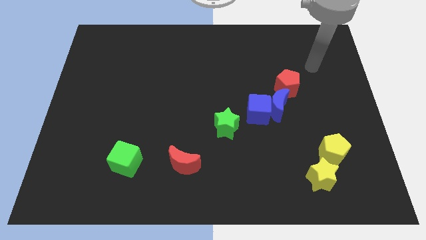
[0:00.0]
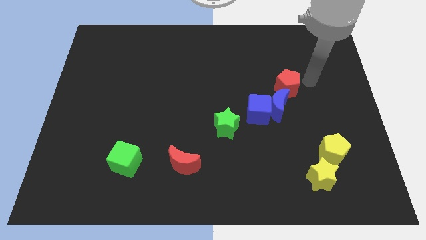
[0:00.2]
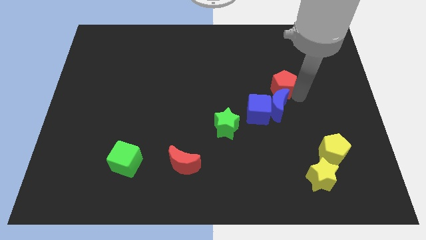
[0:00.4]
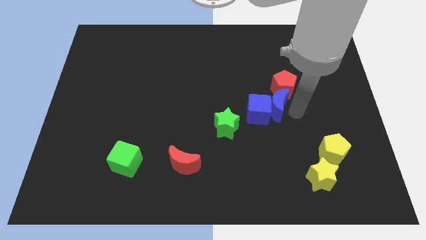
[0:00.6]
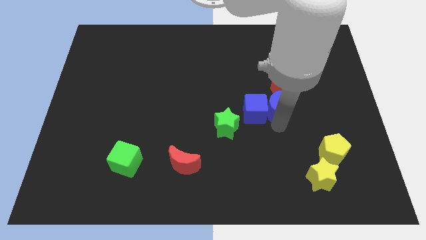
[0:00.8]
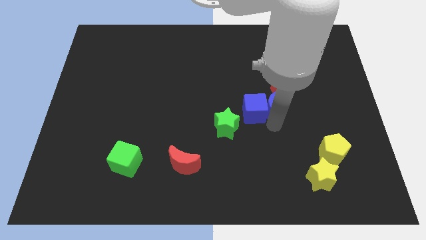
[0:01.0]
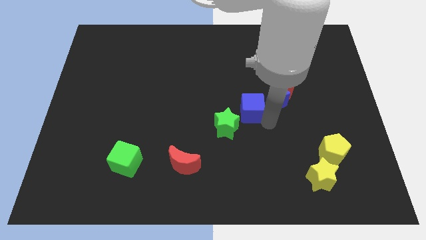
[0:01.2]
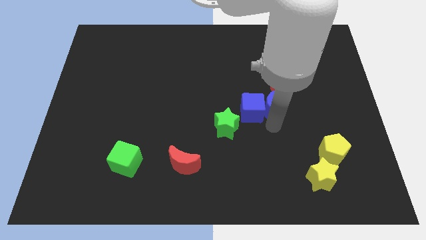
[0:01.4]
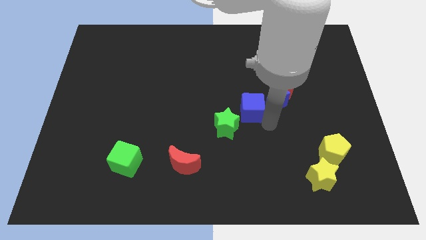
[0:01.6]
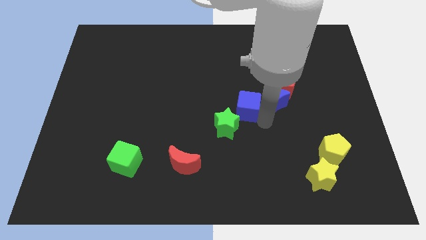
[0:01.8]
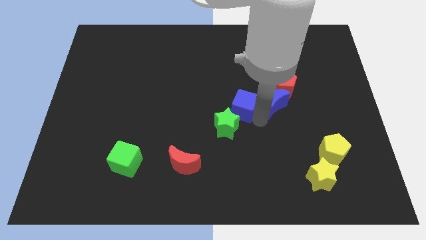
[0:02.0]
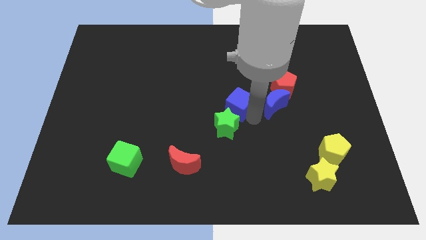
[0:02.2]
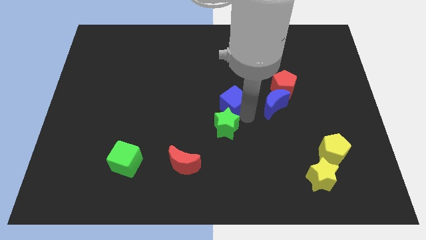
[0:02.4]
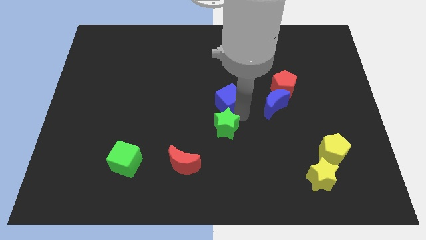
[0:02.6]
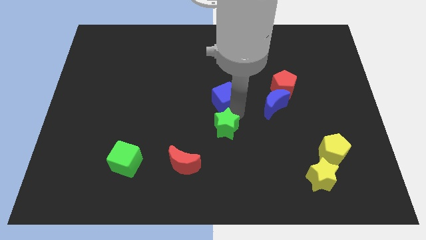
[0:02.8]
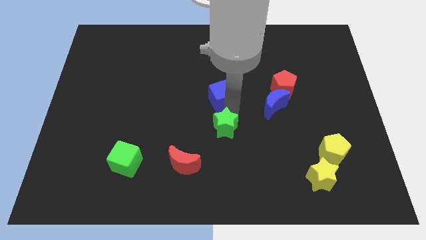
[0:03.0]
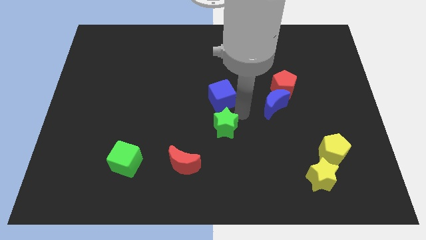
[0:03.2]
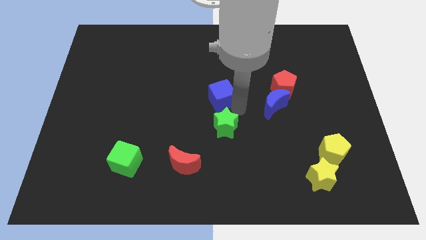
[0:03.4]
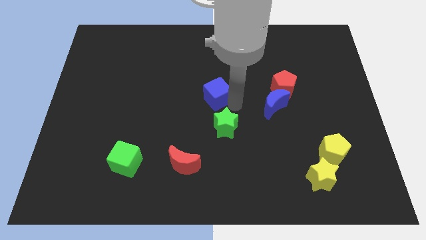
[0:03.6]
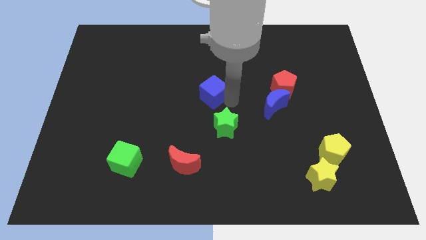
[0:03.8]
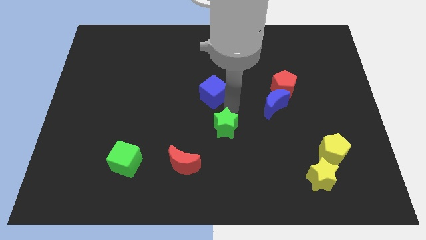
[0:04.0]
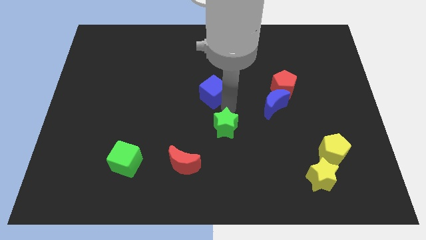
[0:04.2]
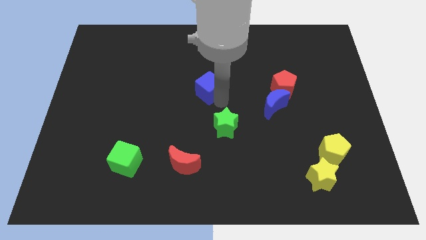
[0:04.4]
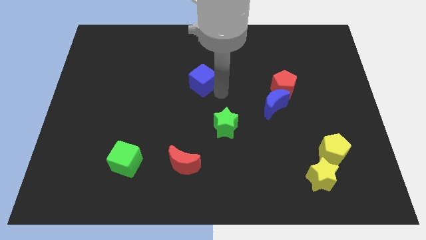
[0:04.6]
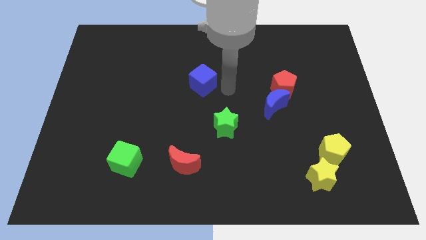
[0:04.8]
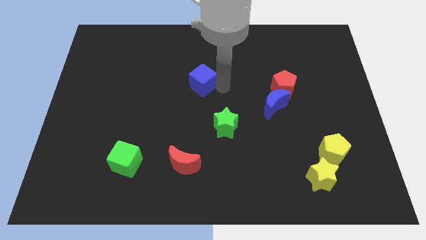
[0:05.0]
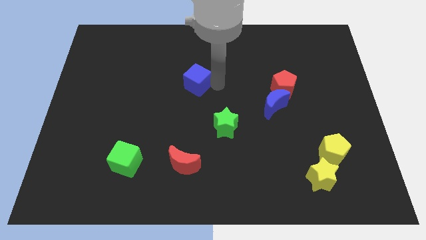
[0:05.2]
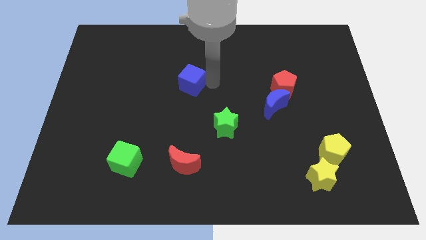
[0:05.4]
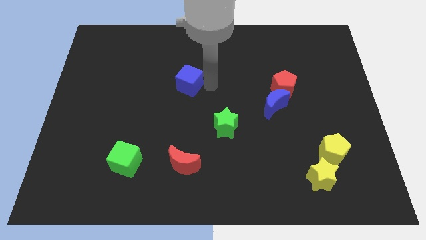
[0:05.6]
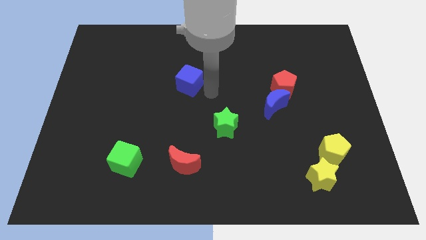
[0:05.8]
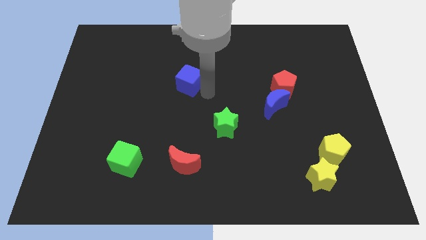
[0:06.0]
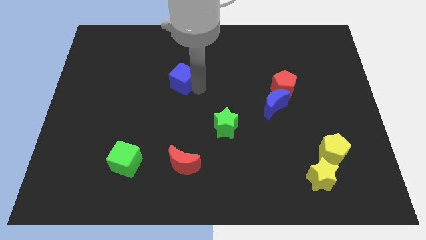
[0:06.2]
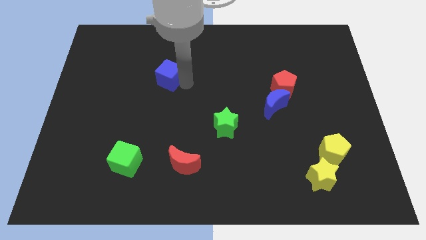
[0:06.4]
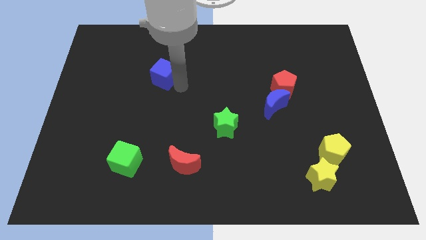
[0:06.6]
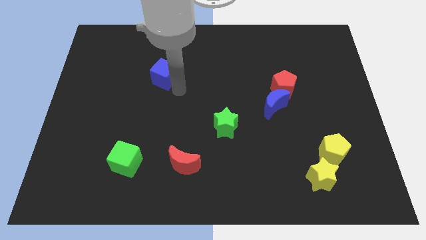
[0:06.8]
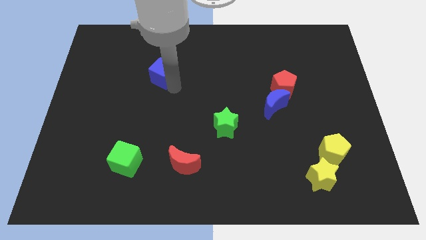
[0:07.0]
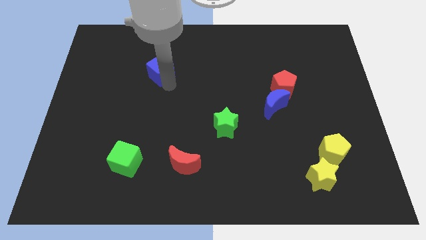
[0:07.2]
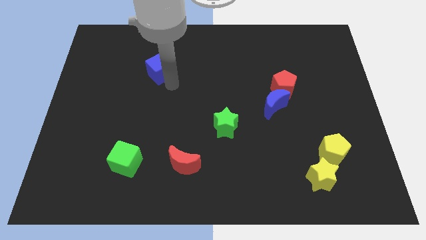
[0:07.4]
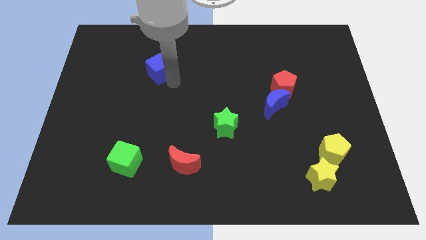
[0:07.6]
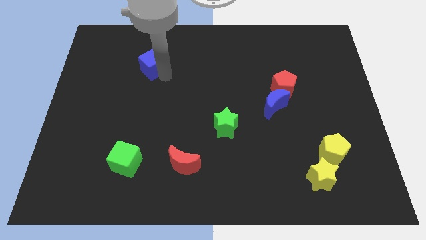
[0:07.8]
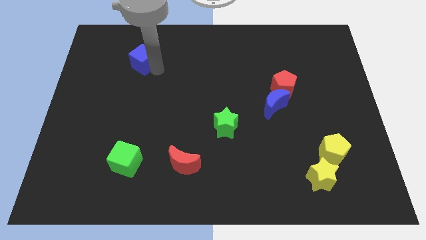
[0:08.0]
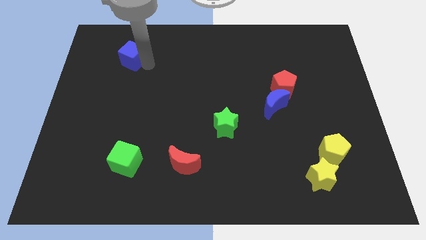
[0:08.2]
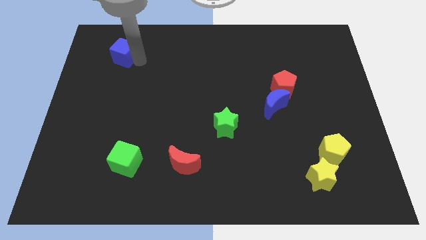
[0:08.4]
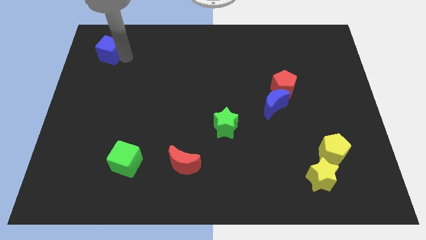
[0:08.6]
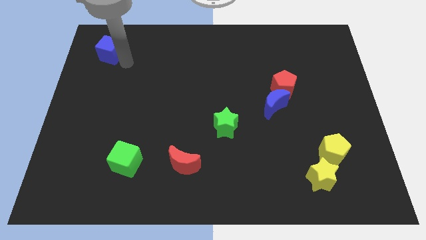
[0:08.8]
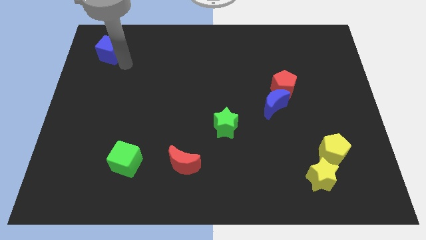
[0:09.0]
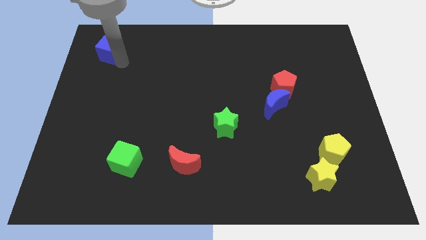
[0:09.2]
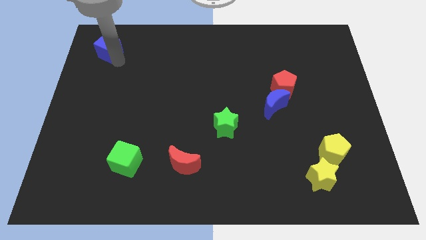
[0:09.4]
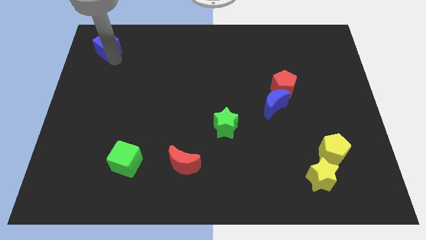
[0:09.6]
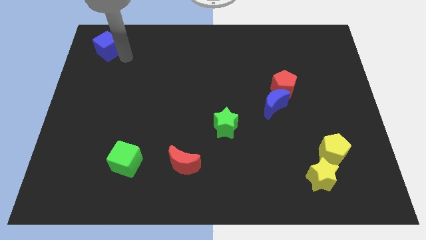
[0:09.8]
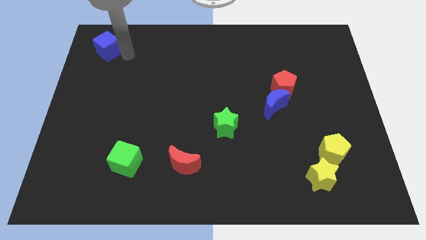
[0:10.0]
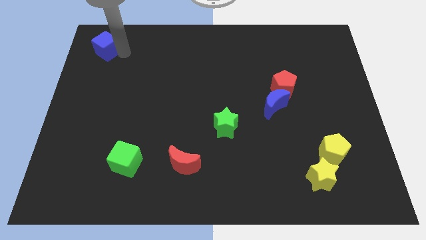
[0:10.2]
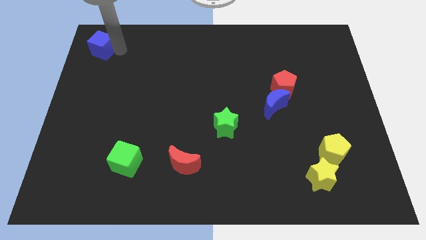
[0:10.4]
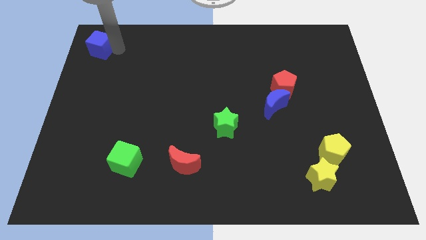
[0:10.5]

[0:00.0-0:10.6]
slide the blue cube to the top left corner

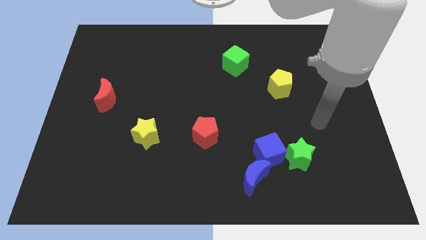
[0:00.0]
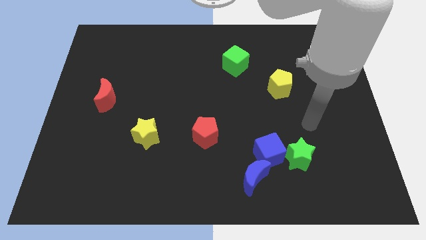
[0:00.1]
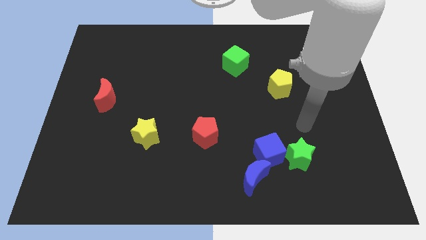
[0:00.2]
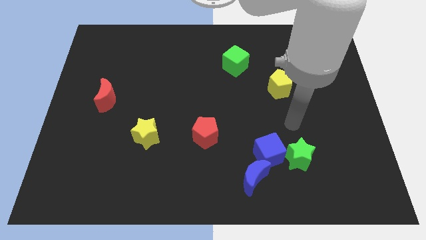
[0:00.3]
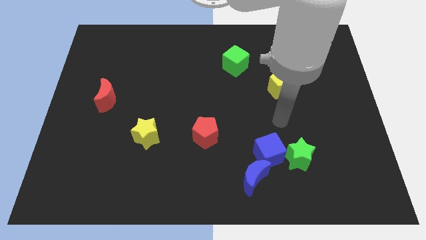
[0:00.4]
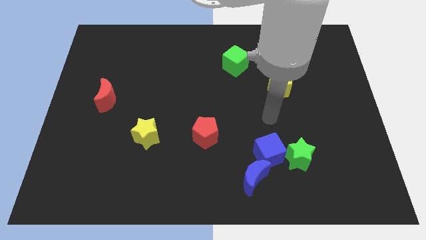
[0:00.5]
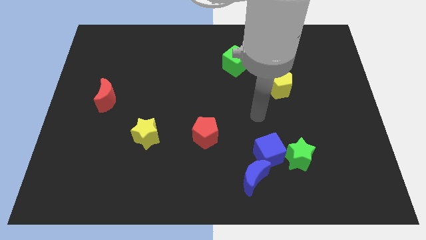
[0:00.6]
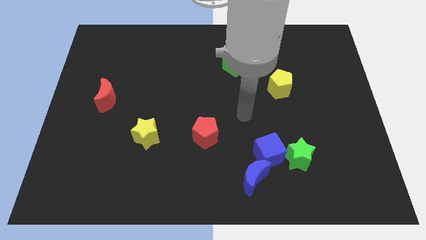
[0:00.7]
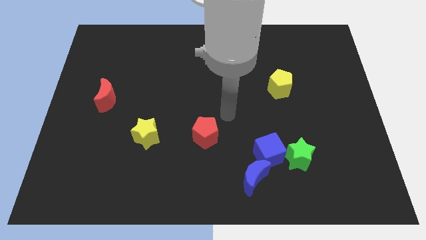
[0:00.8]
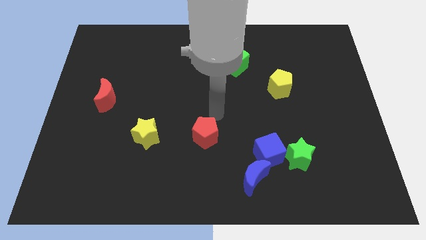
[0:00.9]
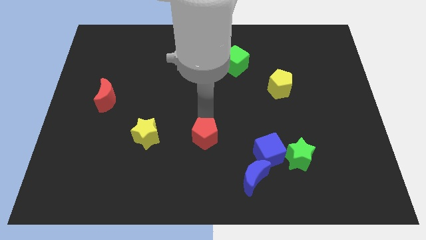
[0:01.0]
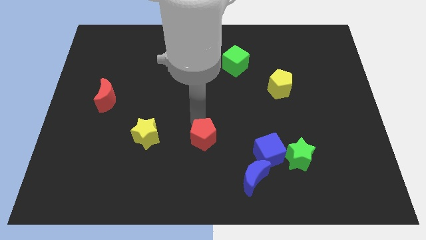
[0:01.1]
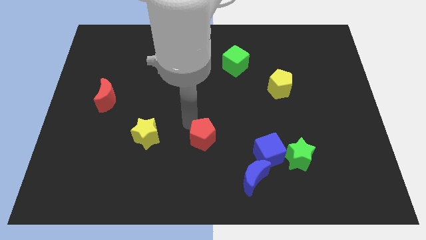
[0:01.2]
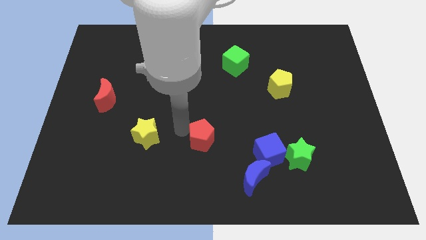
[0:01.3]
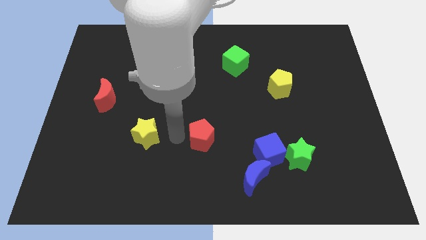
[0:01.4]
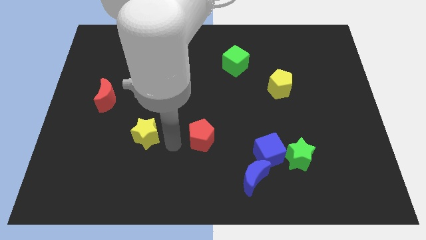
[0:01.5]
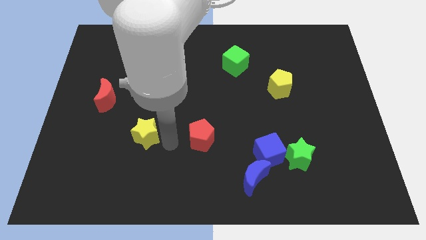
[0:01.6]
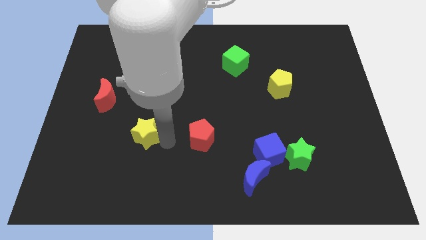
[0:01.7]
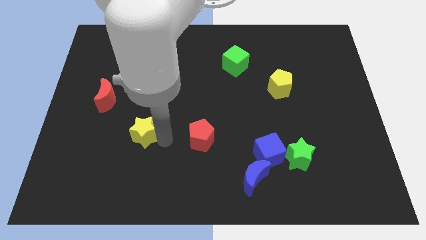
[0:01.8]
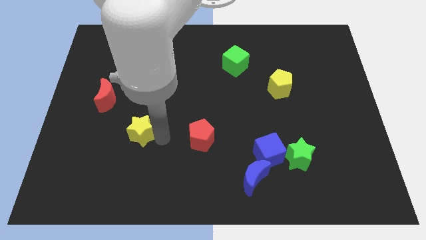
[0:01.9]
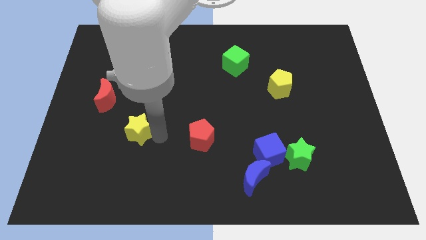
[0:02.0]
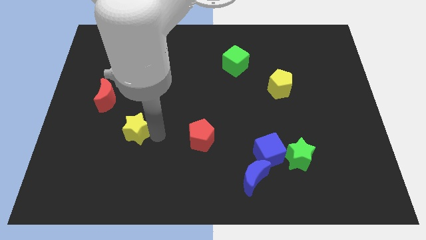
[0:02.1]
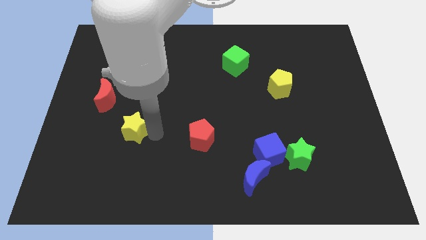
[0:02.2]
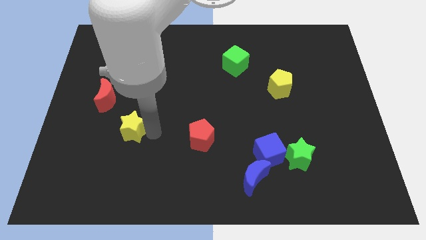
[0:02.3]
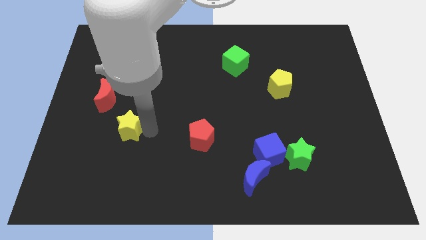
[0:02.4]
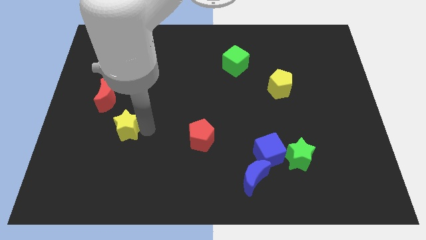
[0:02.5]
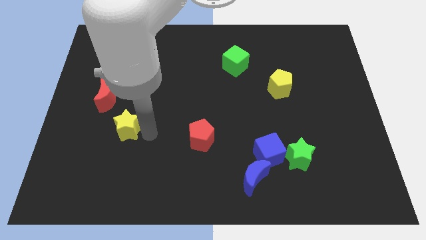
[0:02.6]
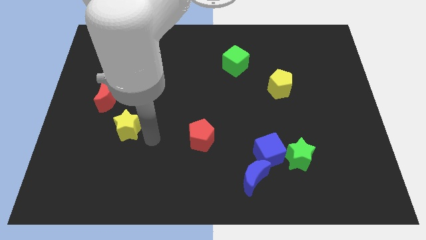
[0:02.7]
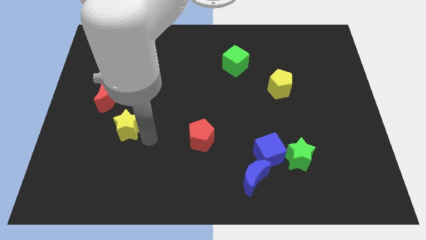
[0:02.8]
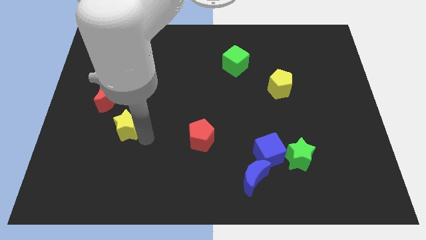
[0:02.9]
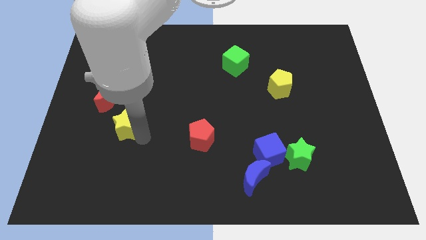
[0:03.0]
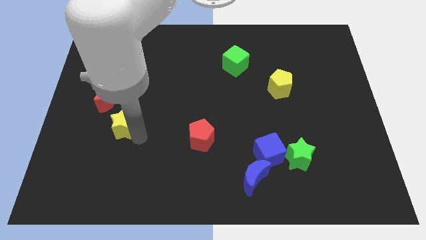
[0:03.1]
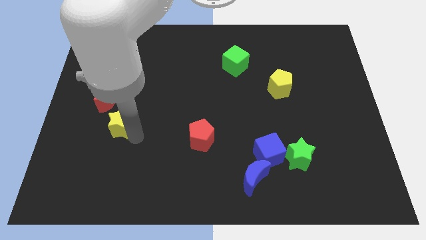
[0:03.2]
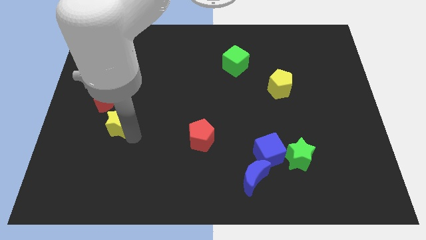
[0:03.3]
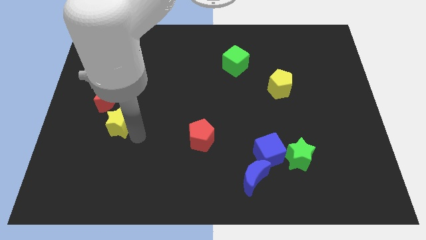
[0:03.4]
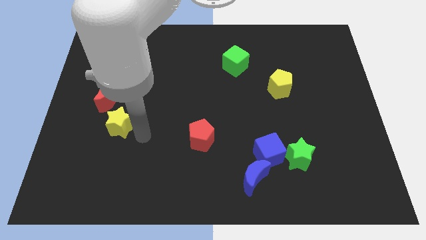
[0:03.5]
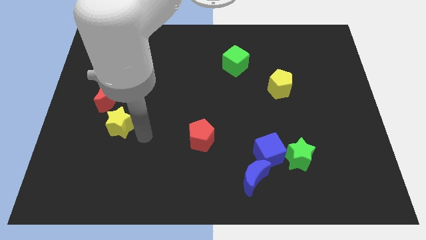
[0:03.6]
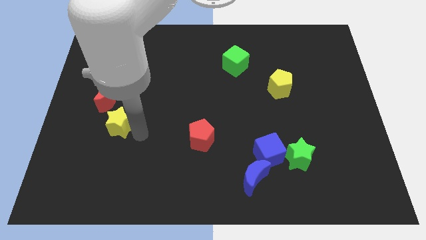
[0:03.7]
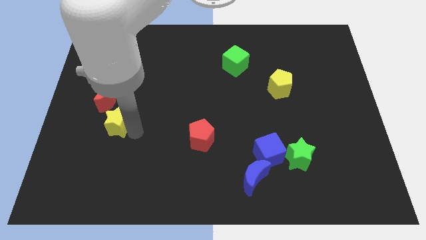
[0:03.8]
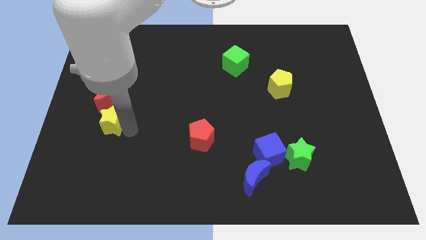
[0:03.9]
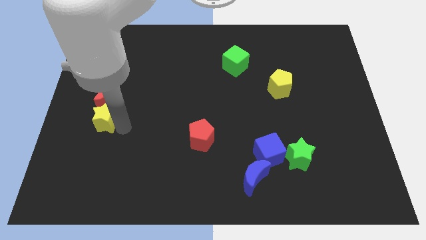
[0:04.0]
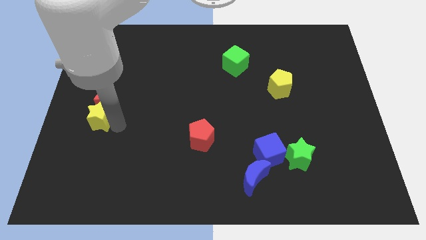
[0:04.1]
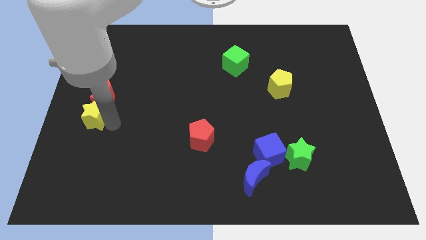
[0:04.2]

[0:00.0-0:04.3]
move the yellow star to the center left
